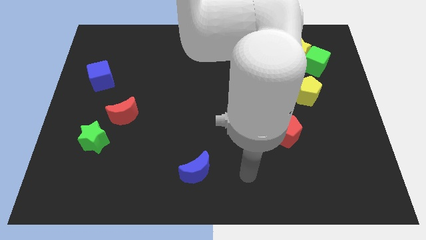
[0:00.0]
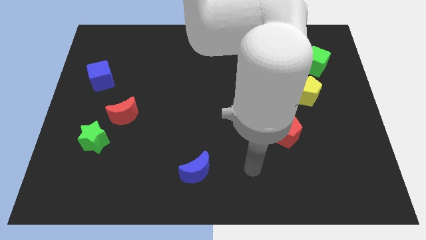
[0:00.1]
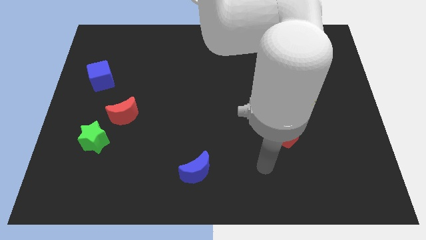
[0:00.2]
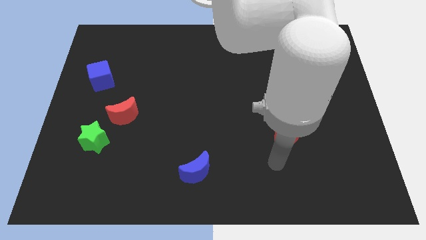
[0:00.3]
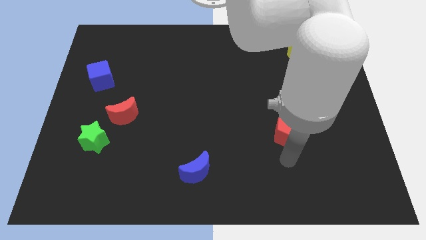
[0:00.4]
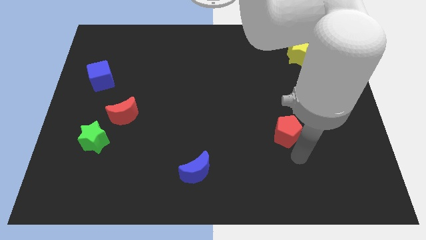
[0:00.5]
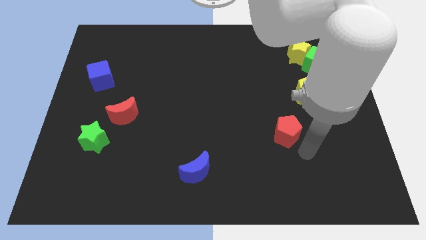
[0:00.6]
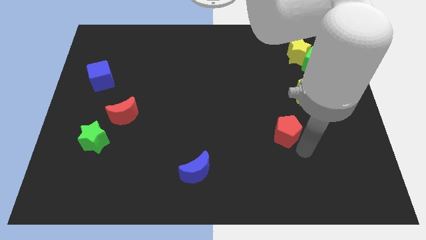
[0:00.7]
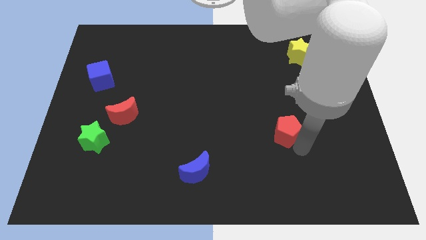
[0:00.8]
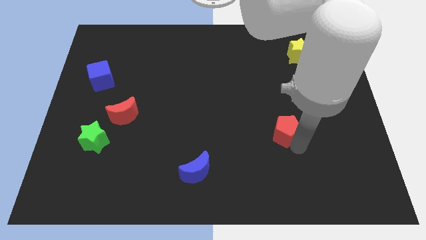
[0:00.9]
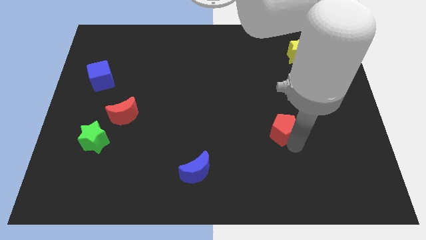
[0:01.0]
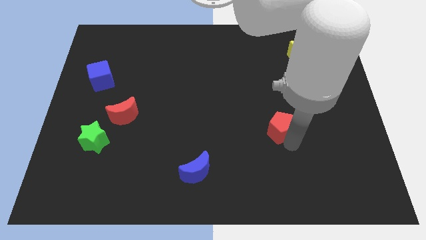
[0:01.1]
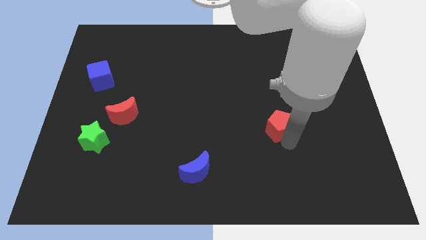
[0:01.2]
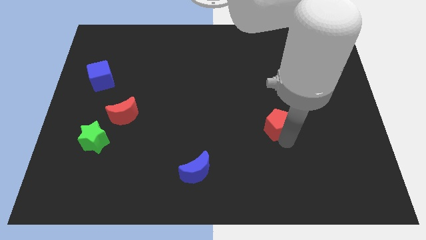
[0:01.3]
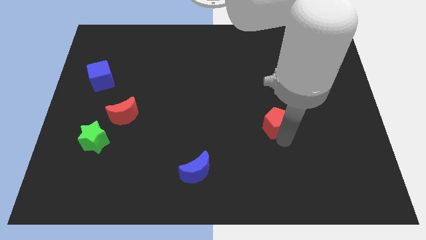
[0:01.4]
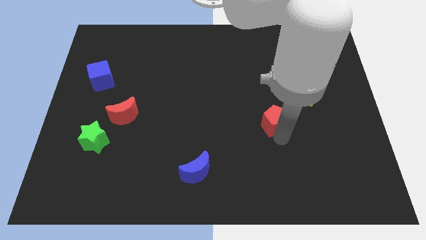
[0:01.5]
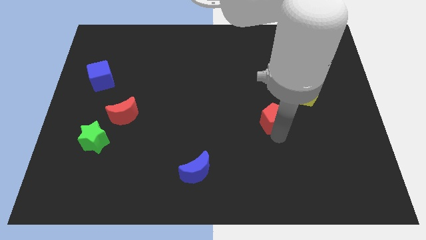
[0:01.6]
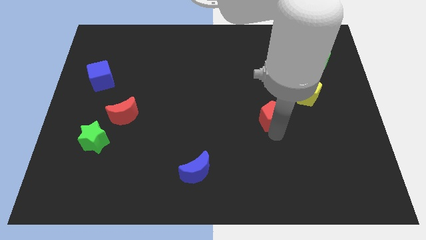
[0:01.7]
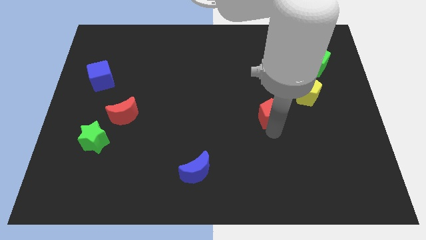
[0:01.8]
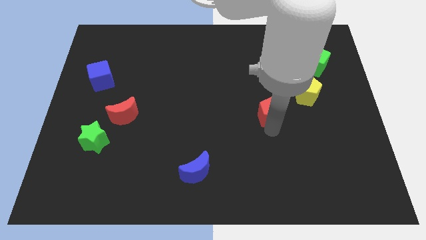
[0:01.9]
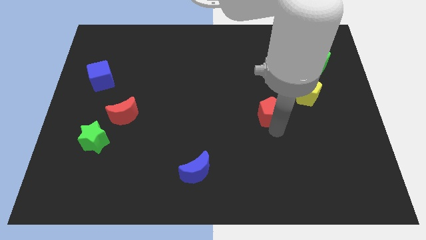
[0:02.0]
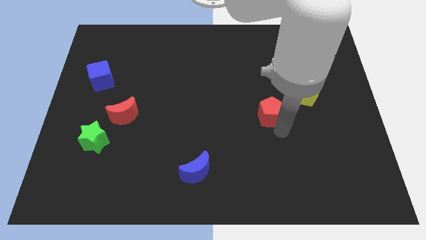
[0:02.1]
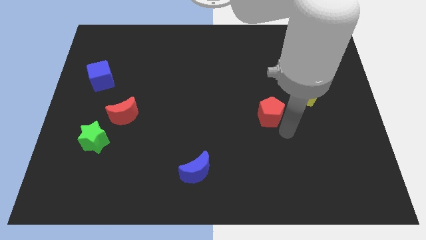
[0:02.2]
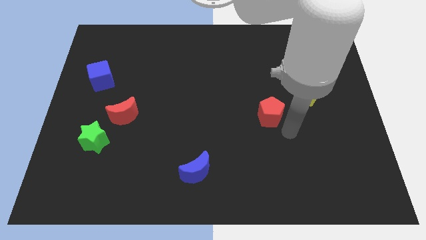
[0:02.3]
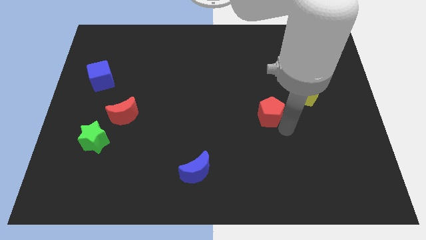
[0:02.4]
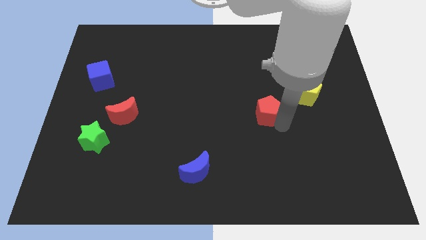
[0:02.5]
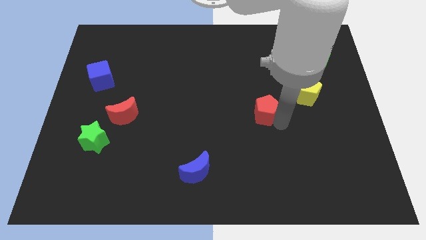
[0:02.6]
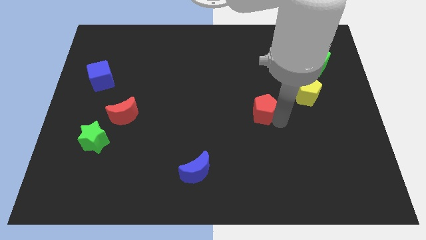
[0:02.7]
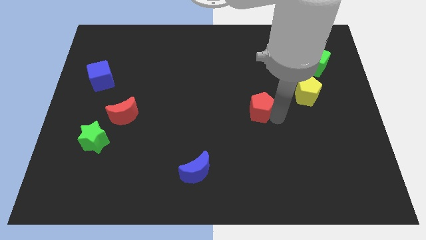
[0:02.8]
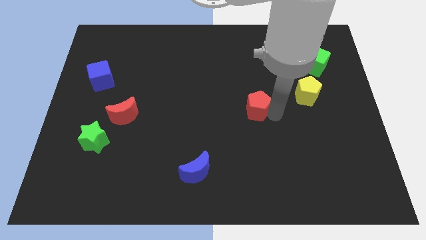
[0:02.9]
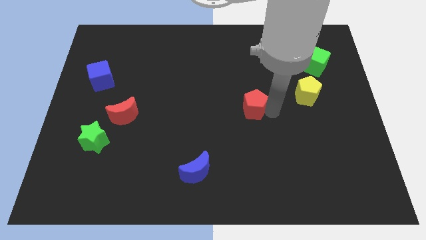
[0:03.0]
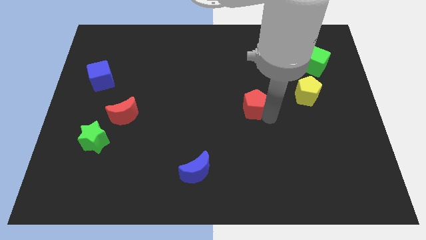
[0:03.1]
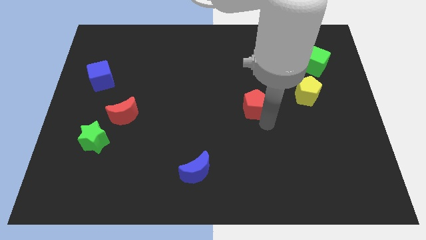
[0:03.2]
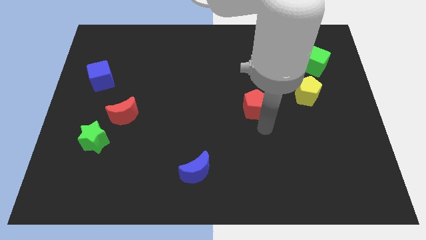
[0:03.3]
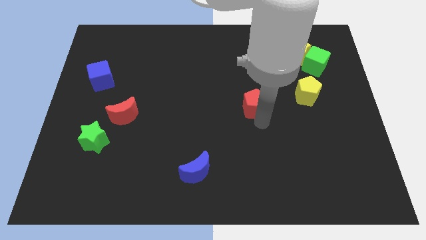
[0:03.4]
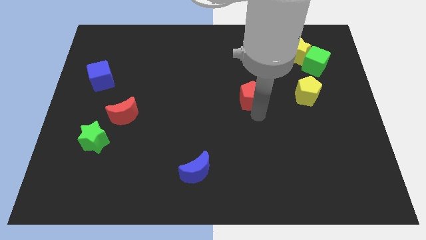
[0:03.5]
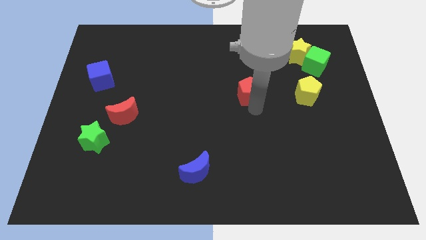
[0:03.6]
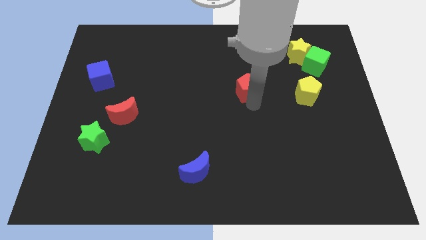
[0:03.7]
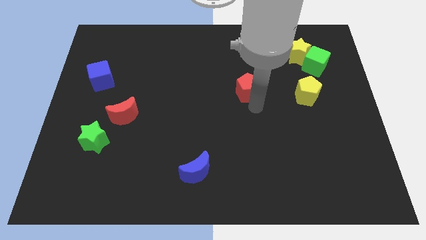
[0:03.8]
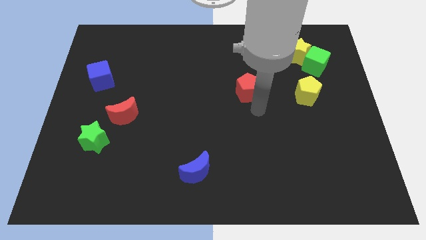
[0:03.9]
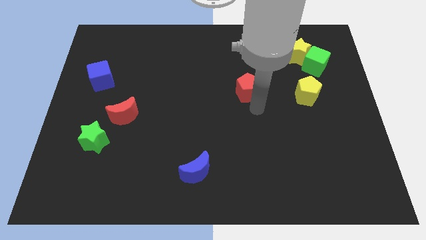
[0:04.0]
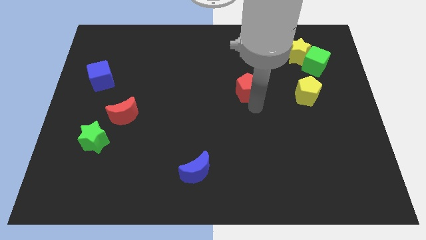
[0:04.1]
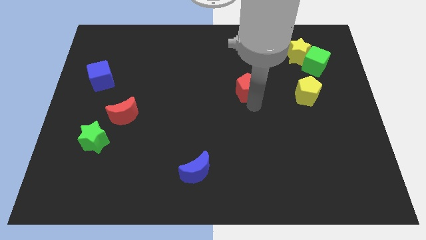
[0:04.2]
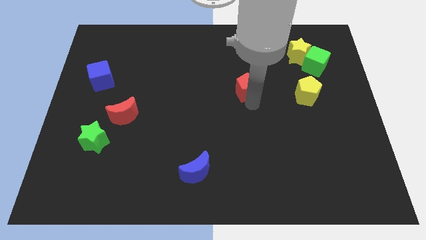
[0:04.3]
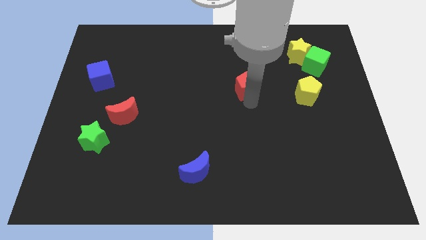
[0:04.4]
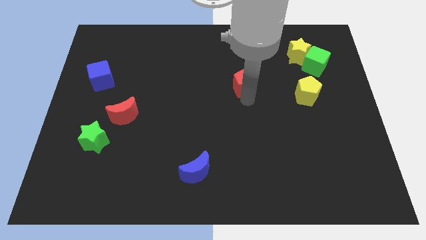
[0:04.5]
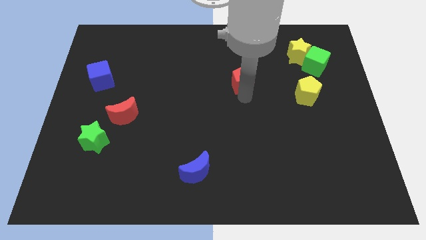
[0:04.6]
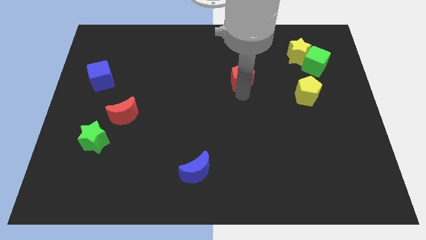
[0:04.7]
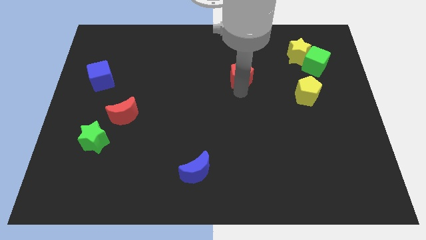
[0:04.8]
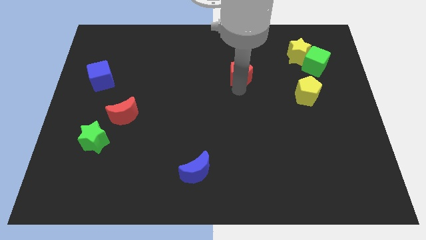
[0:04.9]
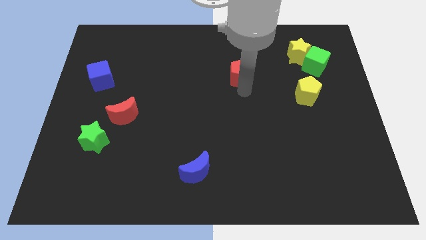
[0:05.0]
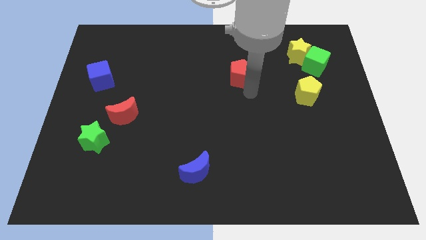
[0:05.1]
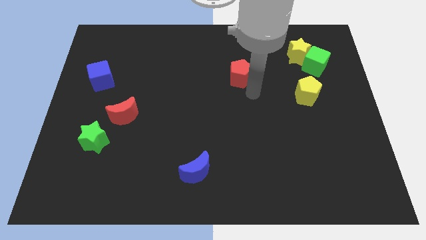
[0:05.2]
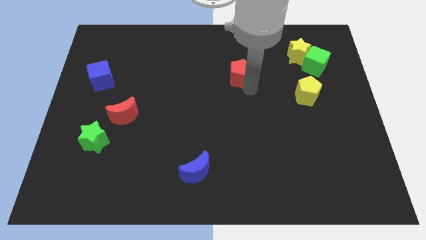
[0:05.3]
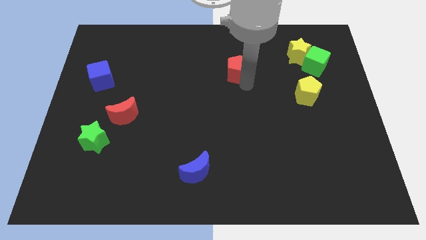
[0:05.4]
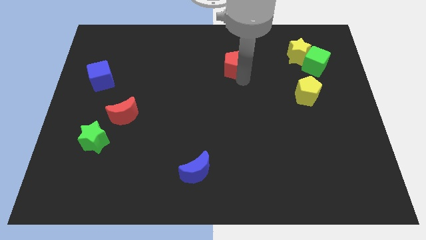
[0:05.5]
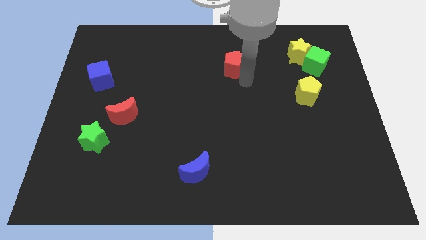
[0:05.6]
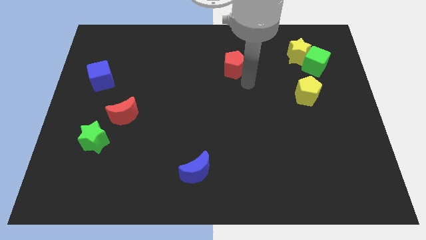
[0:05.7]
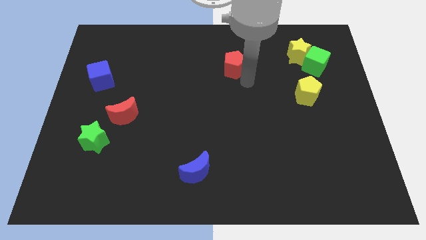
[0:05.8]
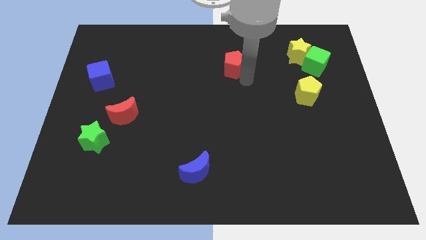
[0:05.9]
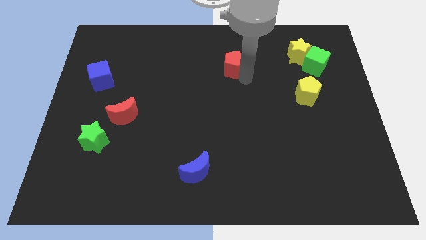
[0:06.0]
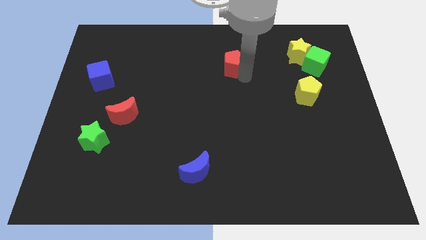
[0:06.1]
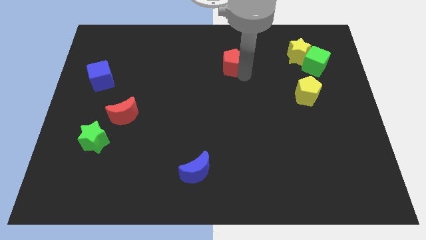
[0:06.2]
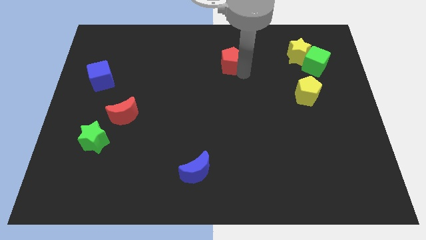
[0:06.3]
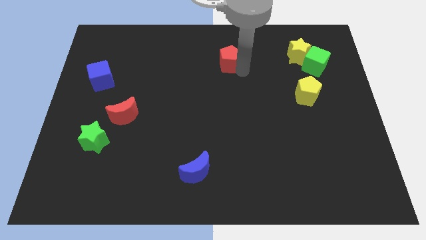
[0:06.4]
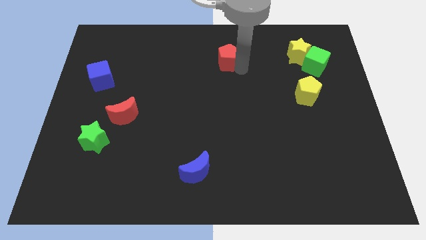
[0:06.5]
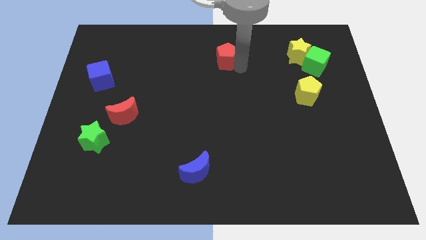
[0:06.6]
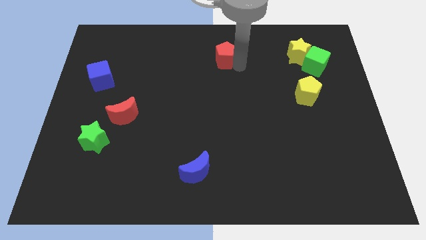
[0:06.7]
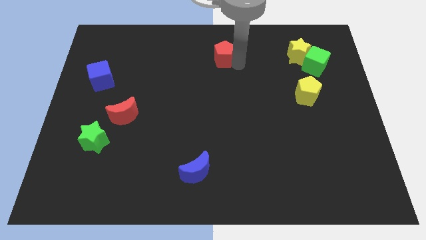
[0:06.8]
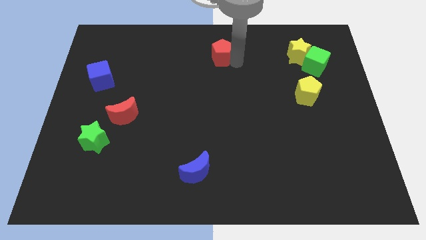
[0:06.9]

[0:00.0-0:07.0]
slide the red pentagon to the towards your base
